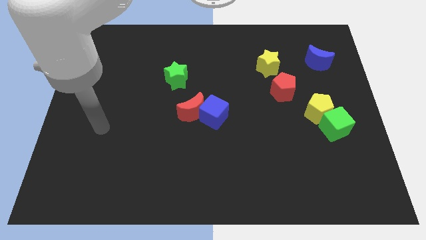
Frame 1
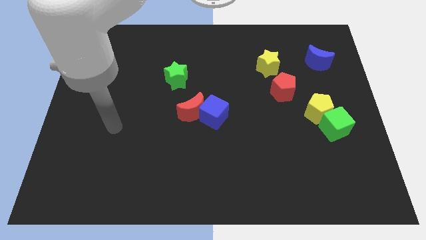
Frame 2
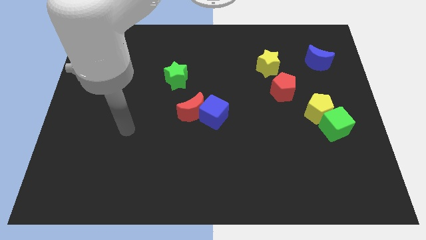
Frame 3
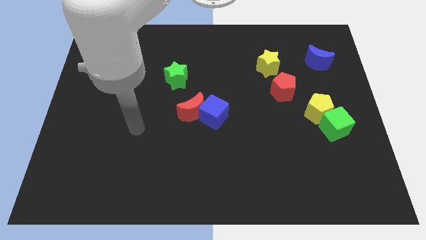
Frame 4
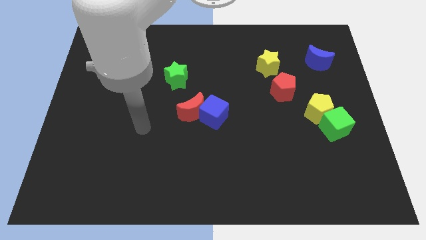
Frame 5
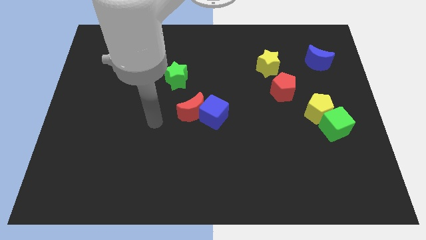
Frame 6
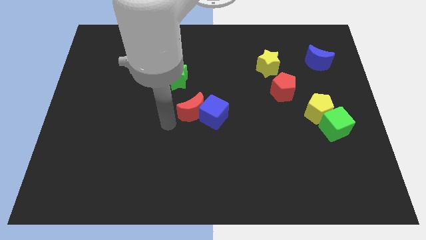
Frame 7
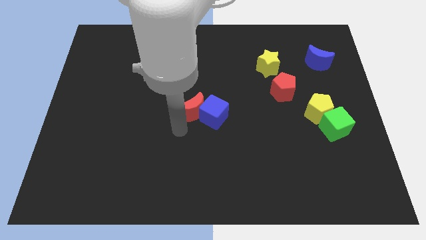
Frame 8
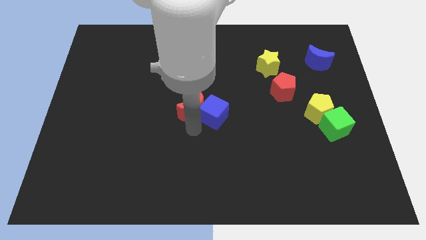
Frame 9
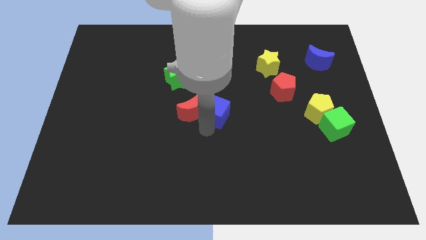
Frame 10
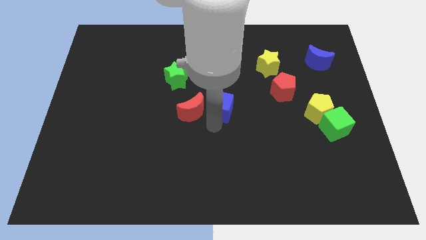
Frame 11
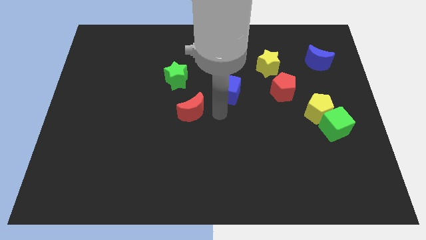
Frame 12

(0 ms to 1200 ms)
pull the red moon apart from the blue cube

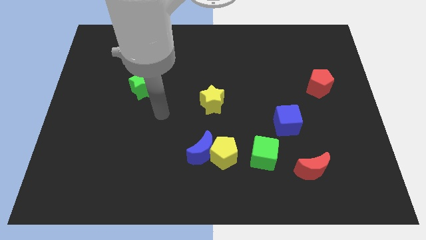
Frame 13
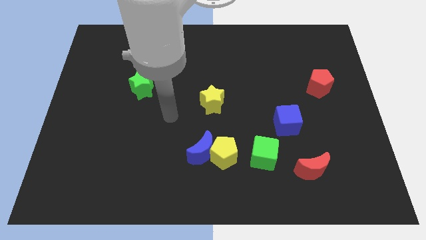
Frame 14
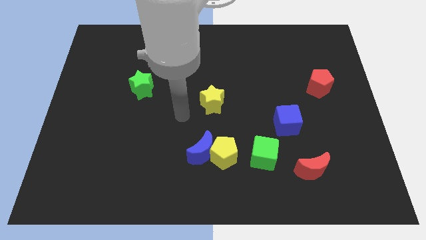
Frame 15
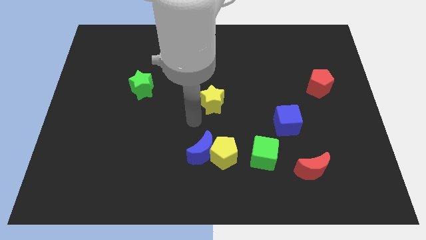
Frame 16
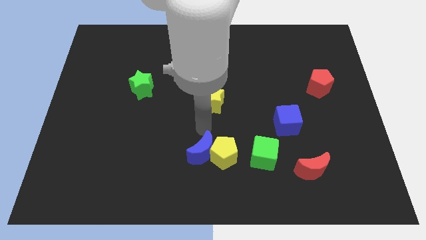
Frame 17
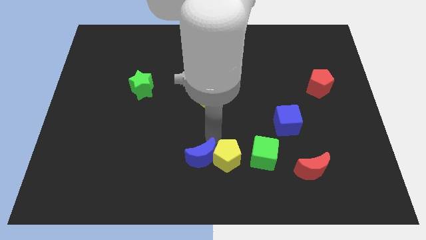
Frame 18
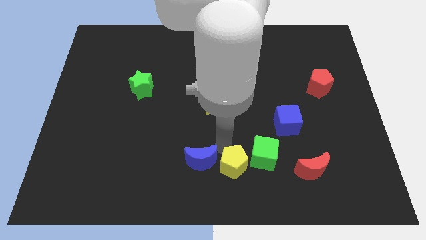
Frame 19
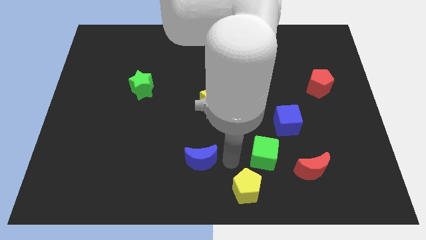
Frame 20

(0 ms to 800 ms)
move the blue moon away from the yellow pentagon

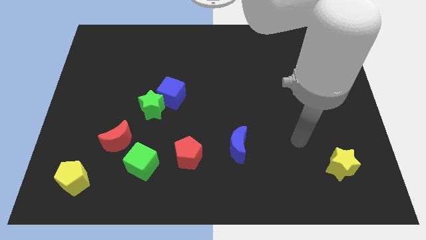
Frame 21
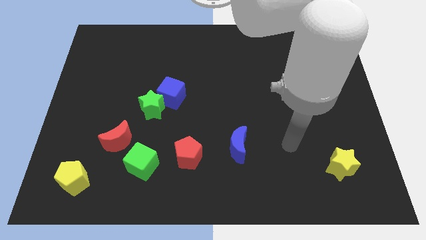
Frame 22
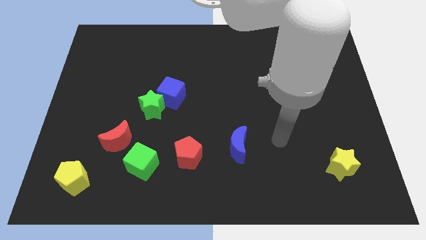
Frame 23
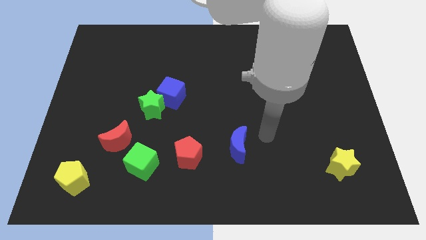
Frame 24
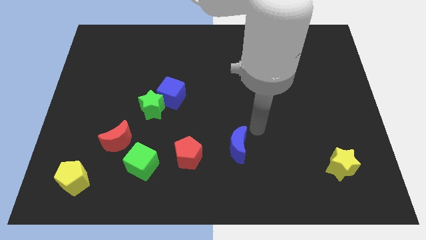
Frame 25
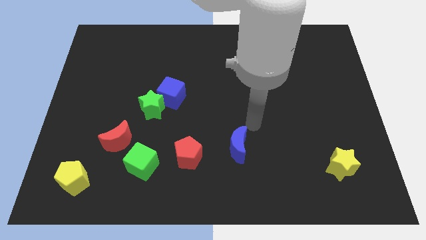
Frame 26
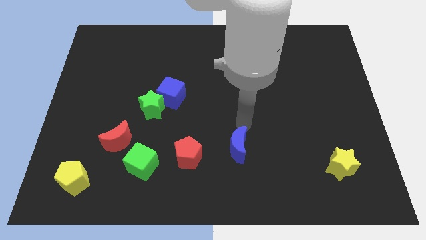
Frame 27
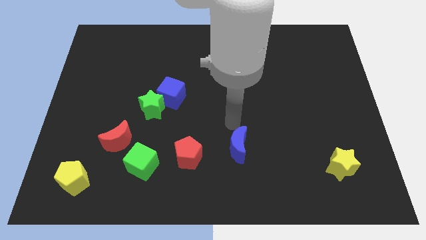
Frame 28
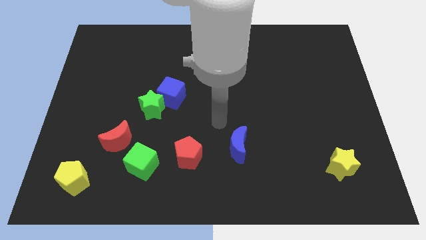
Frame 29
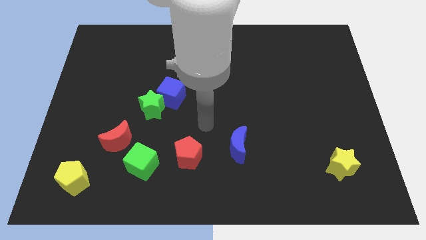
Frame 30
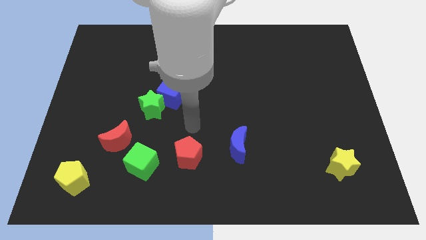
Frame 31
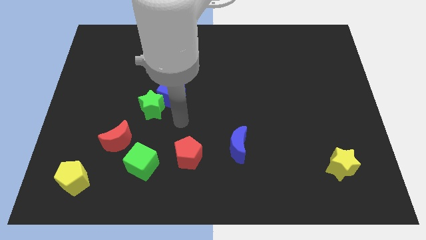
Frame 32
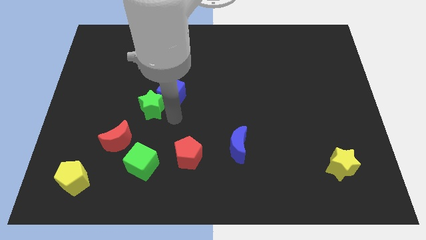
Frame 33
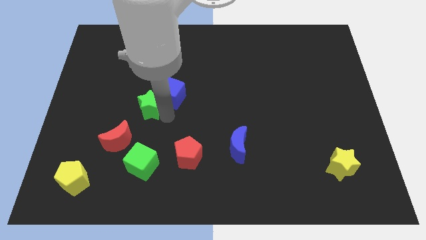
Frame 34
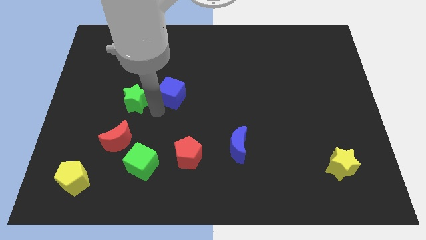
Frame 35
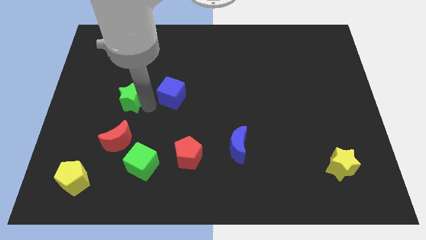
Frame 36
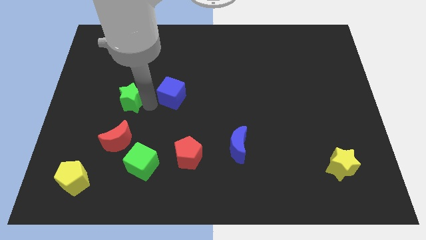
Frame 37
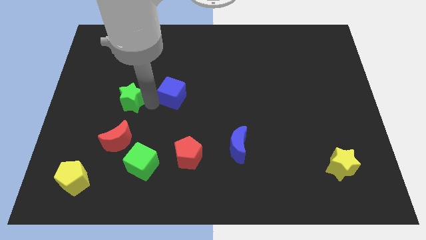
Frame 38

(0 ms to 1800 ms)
move the blue cube away from the green star

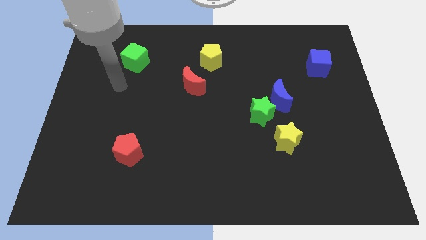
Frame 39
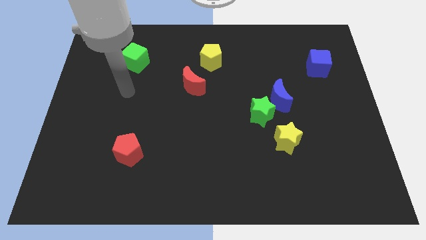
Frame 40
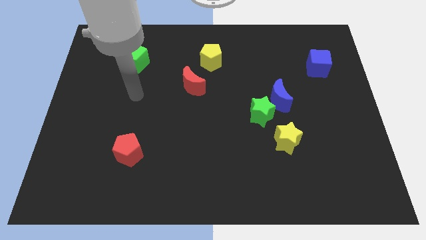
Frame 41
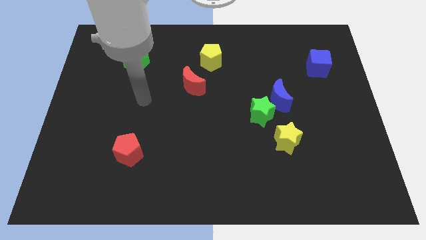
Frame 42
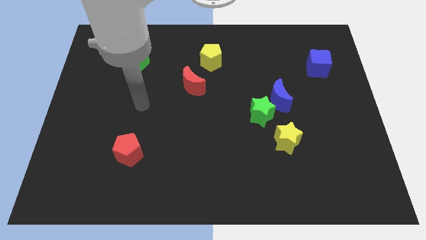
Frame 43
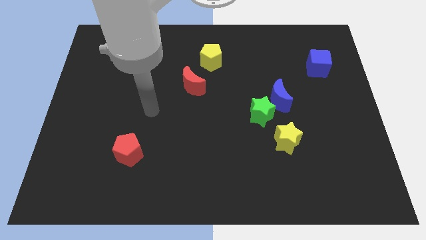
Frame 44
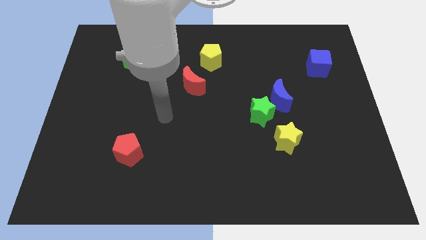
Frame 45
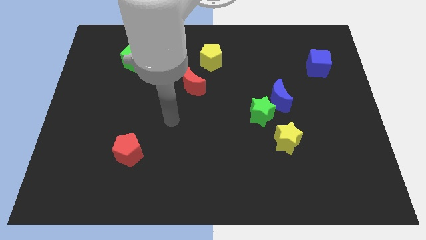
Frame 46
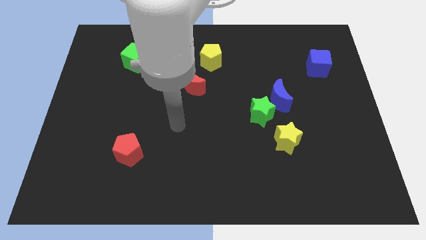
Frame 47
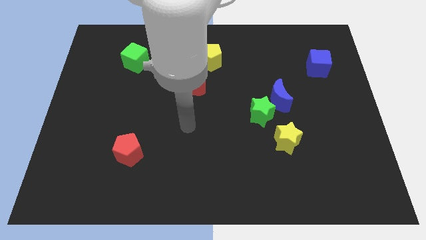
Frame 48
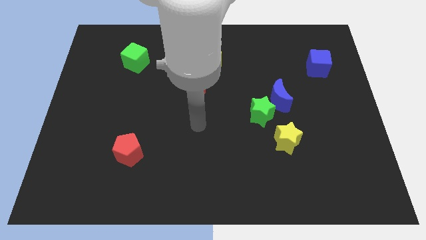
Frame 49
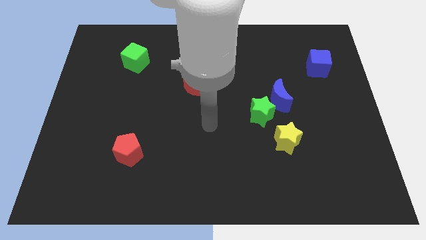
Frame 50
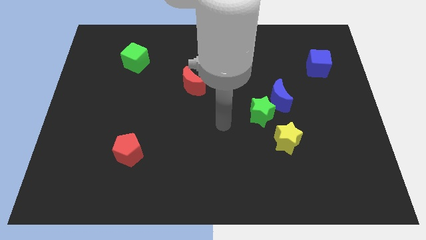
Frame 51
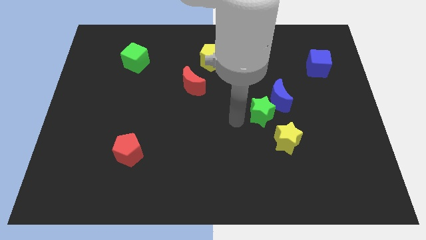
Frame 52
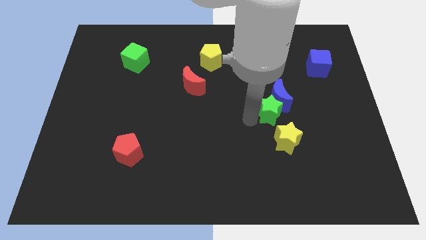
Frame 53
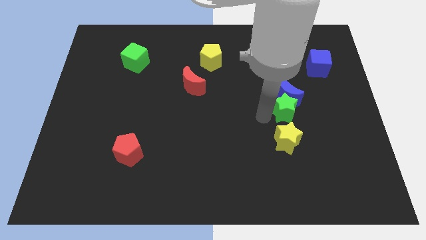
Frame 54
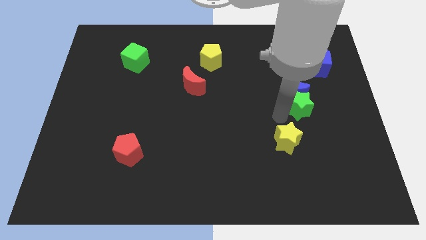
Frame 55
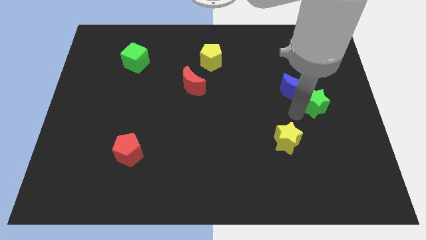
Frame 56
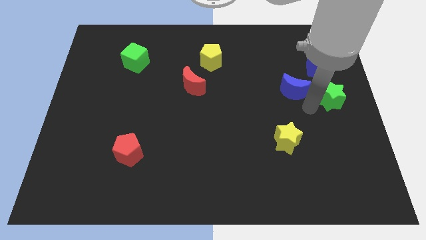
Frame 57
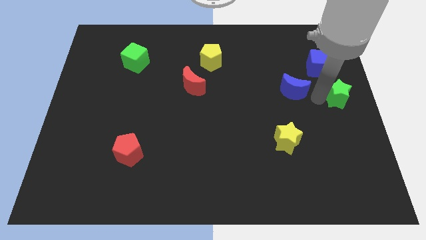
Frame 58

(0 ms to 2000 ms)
pull the blue moon apart from the green star

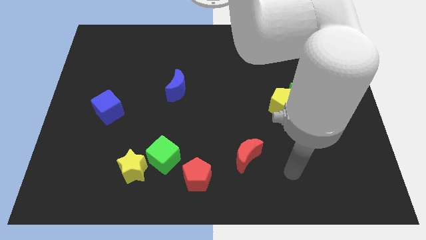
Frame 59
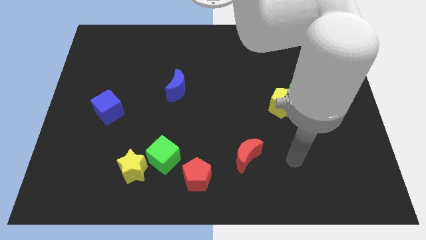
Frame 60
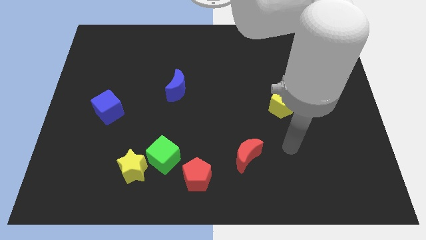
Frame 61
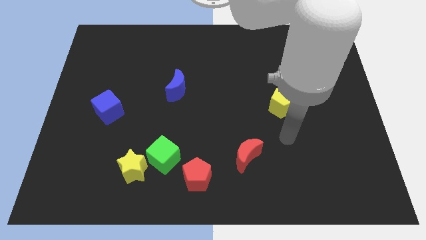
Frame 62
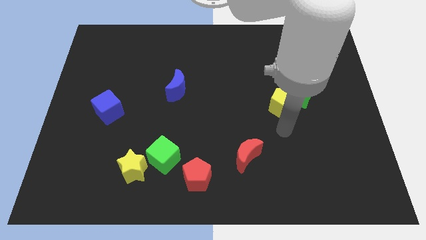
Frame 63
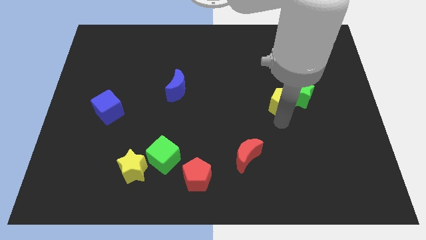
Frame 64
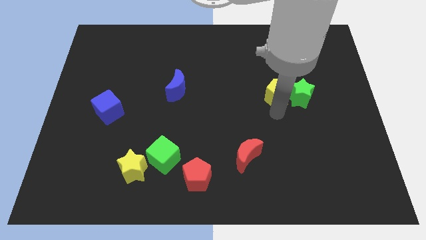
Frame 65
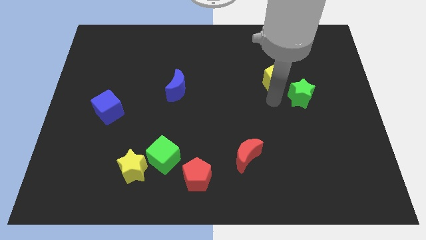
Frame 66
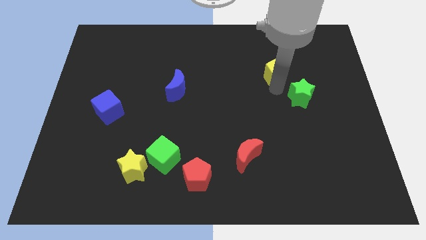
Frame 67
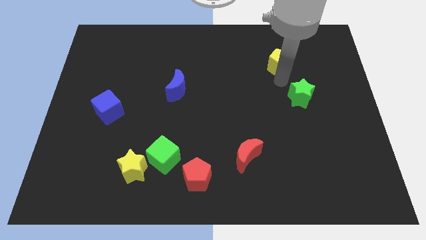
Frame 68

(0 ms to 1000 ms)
move the green star away from the yellow pentagon

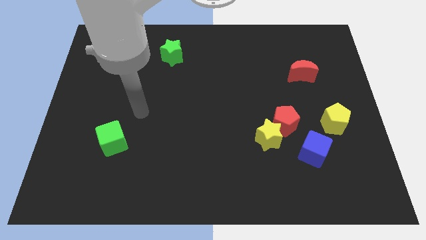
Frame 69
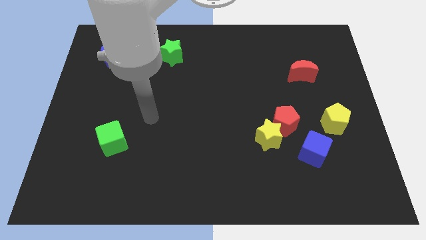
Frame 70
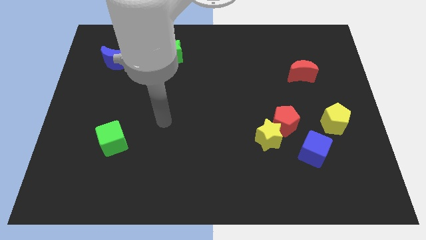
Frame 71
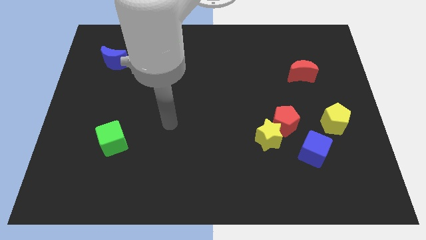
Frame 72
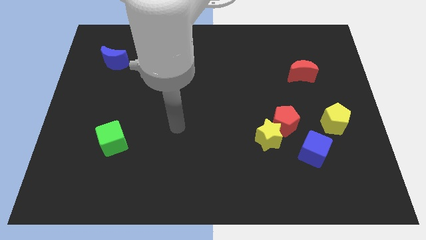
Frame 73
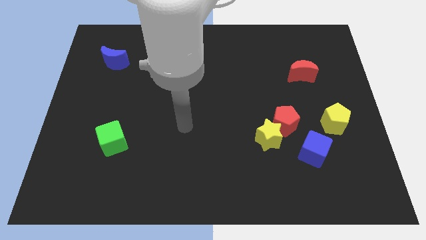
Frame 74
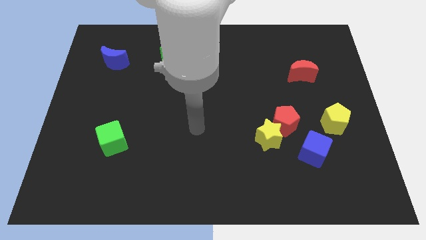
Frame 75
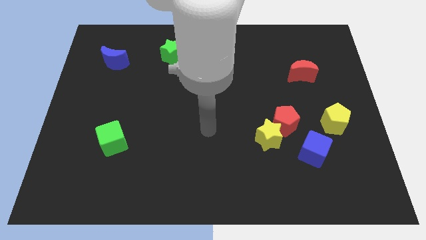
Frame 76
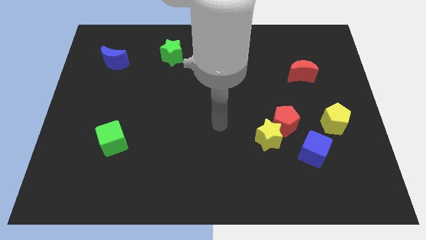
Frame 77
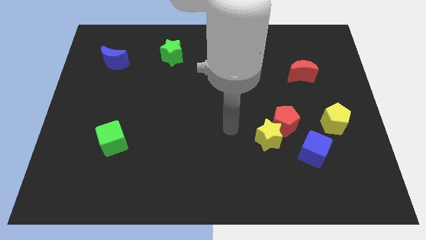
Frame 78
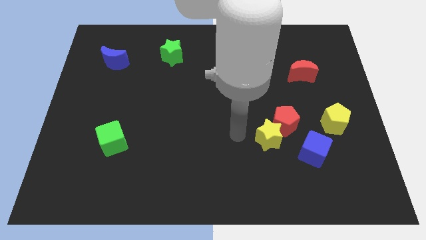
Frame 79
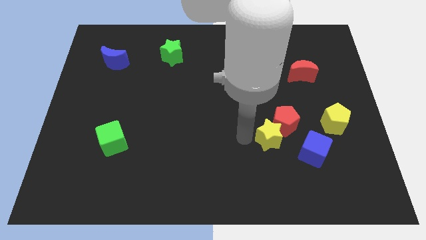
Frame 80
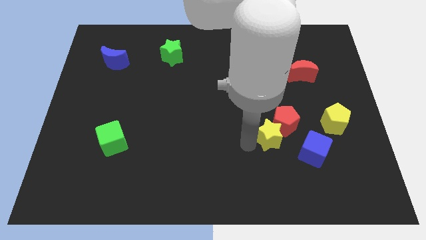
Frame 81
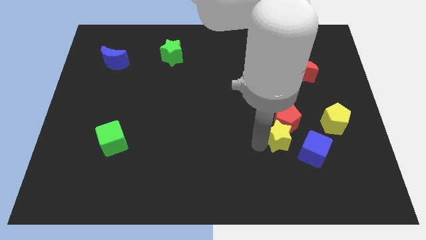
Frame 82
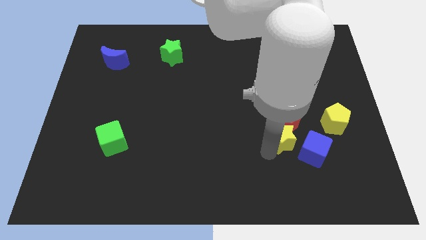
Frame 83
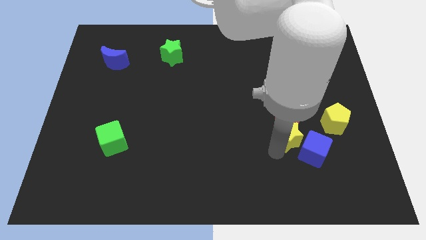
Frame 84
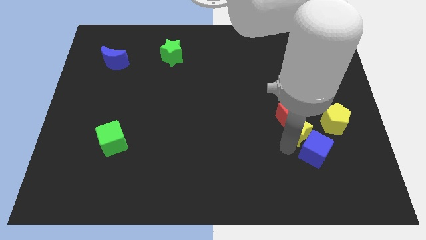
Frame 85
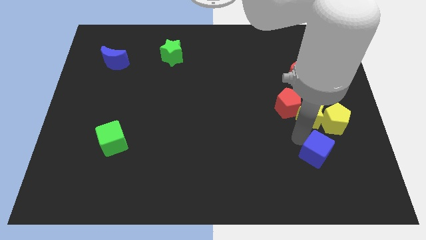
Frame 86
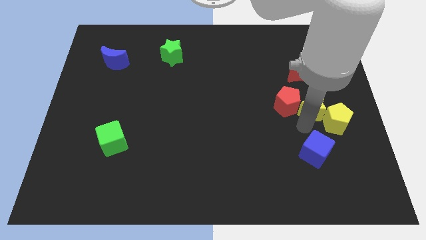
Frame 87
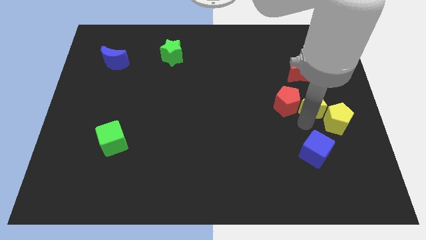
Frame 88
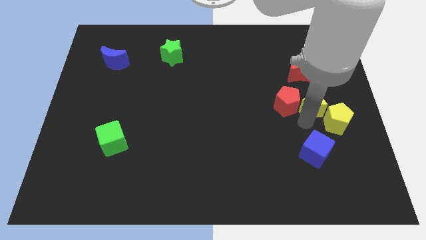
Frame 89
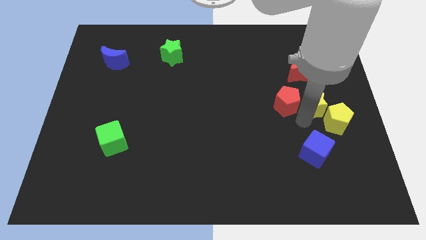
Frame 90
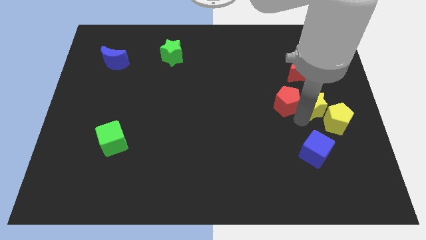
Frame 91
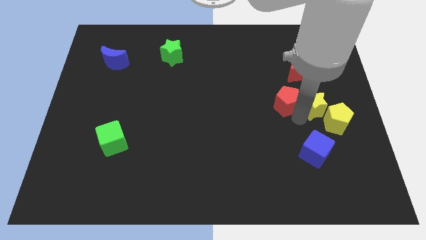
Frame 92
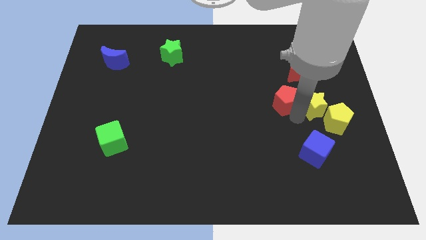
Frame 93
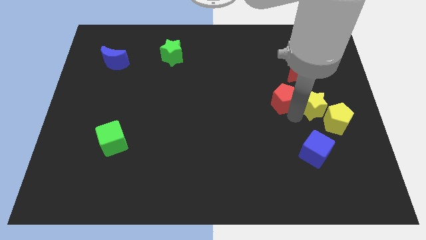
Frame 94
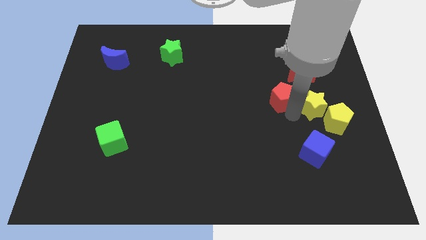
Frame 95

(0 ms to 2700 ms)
pull the red pentagon apart from the yellow star and blue cube
